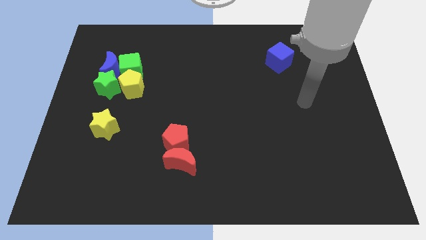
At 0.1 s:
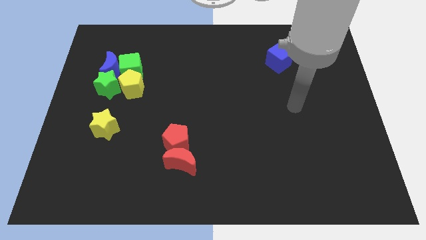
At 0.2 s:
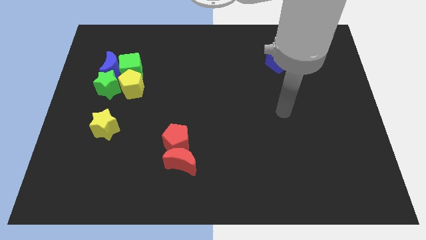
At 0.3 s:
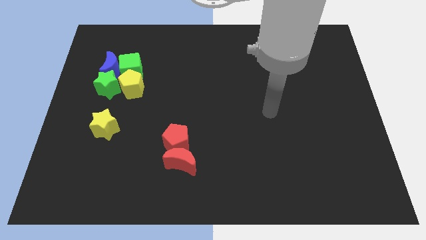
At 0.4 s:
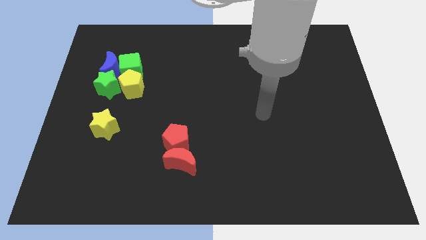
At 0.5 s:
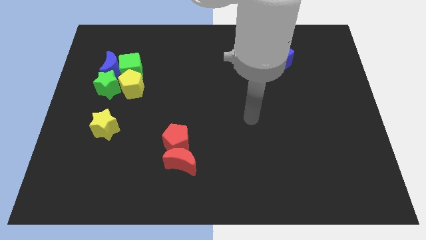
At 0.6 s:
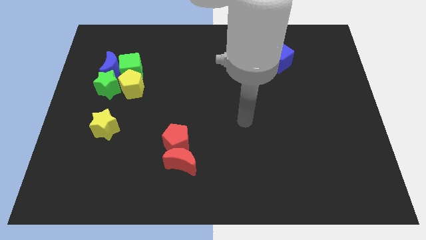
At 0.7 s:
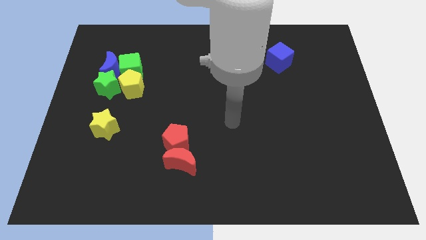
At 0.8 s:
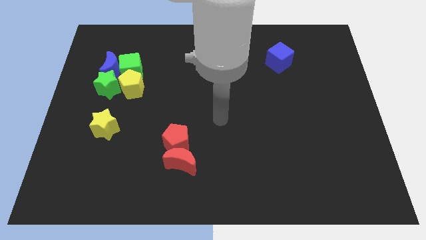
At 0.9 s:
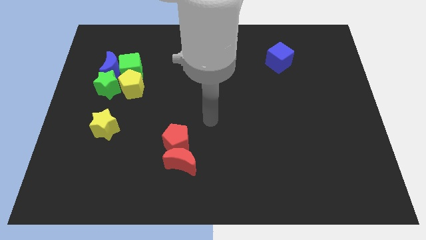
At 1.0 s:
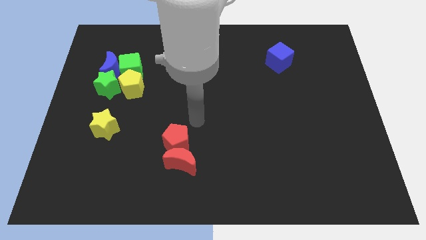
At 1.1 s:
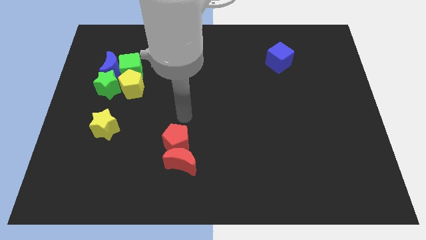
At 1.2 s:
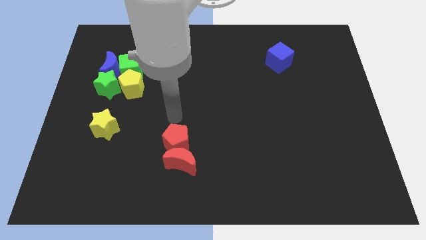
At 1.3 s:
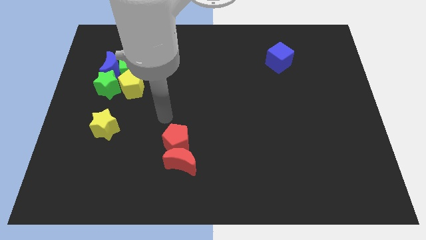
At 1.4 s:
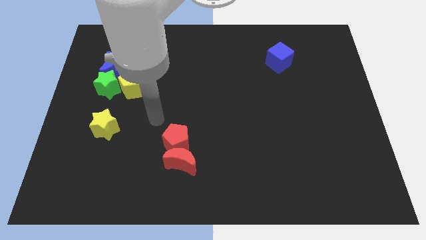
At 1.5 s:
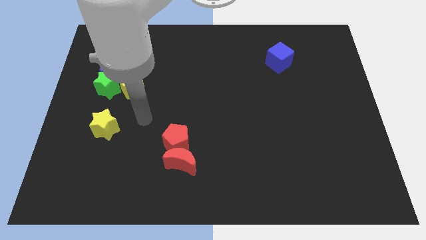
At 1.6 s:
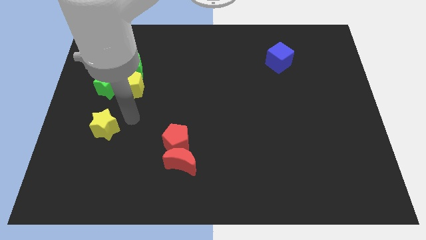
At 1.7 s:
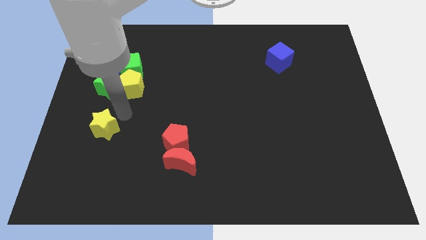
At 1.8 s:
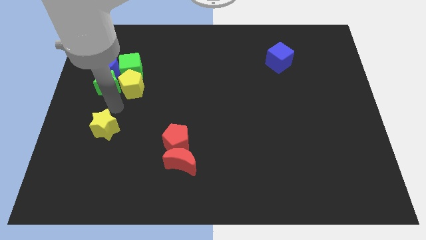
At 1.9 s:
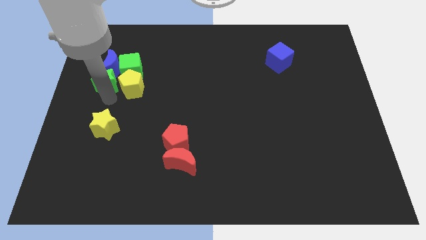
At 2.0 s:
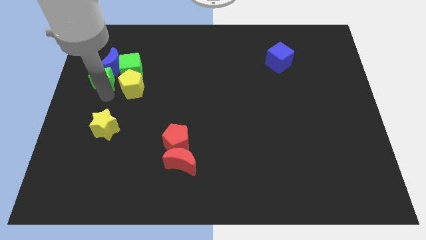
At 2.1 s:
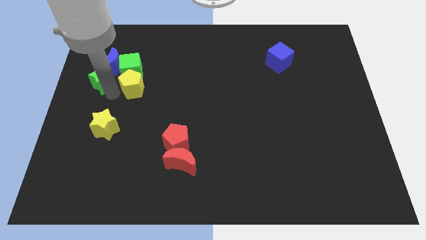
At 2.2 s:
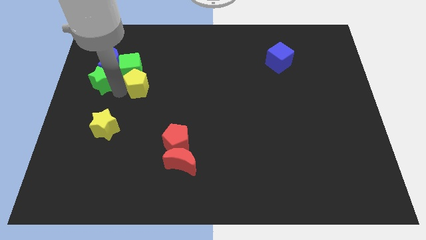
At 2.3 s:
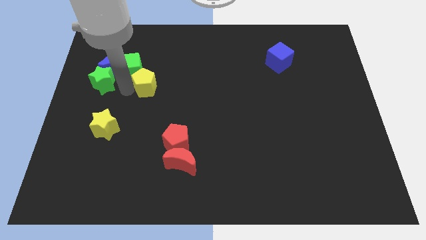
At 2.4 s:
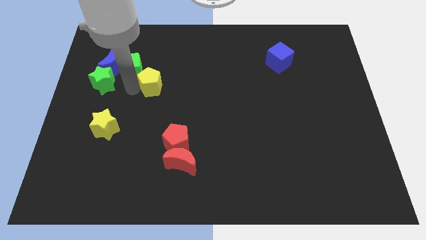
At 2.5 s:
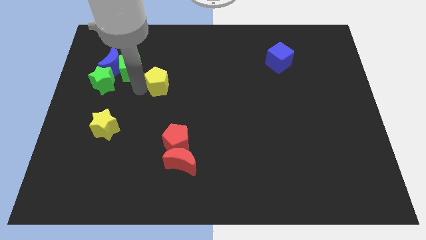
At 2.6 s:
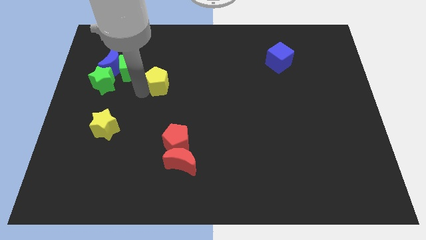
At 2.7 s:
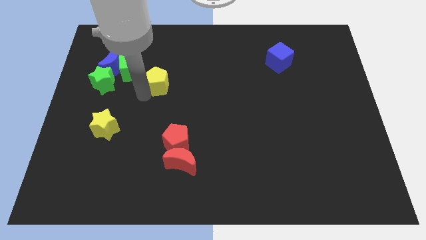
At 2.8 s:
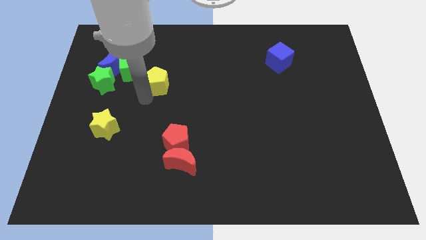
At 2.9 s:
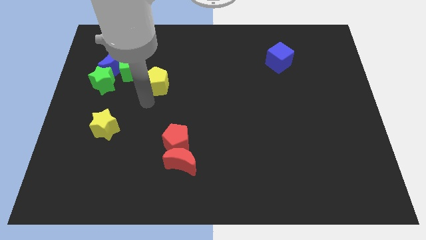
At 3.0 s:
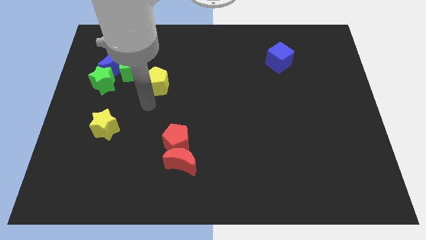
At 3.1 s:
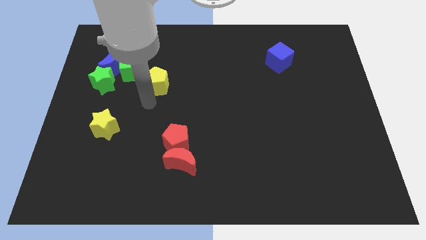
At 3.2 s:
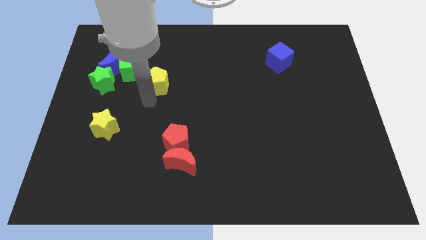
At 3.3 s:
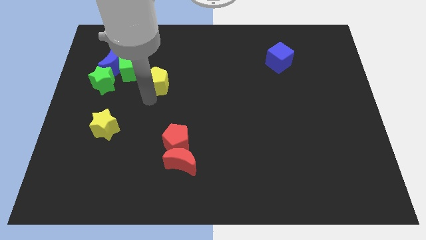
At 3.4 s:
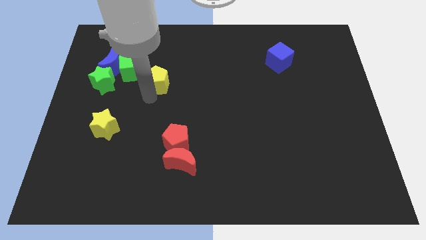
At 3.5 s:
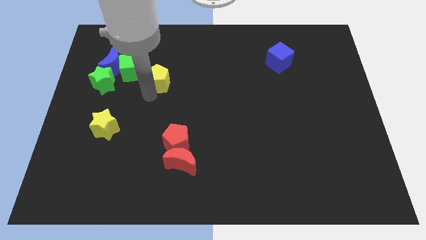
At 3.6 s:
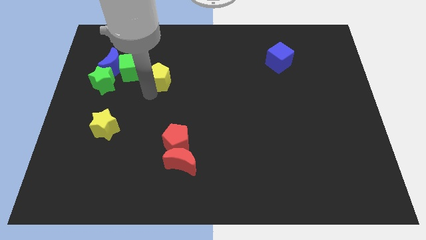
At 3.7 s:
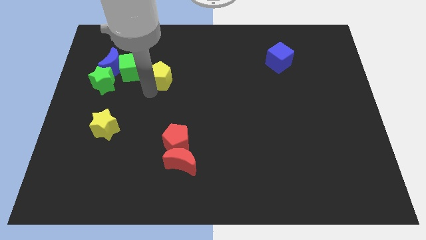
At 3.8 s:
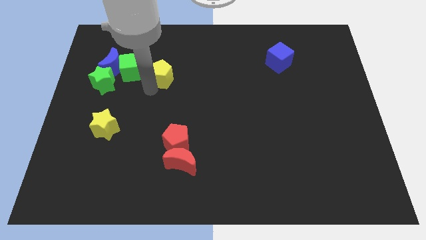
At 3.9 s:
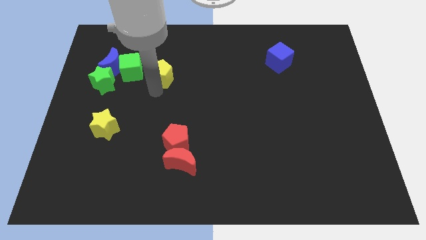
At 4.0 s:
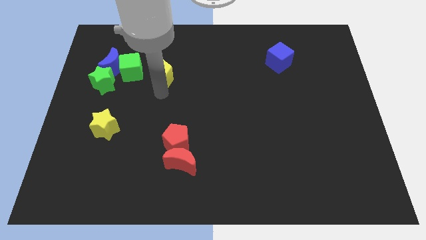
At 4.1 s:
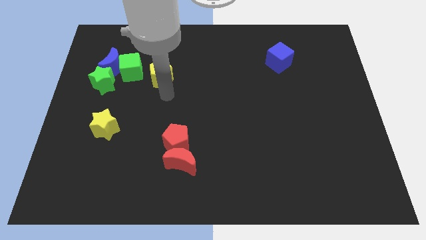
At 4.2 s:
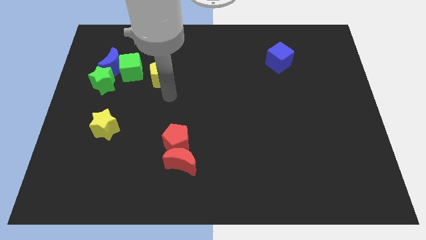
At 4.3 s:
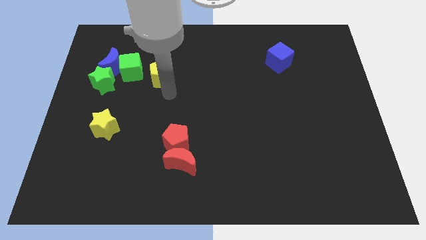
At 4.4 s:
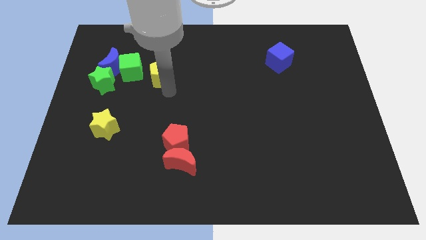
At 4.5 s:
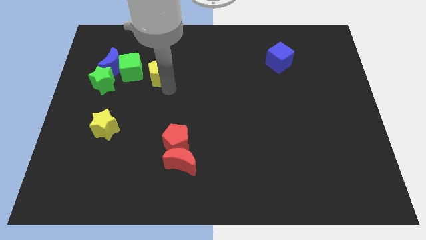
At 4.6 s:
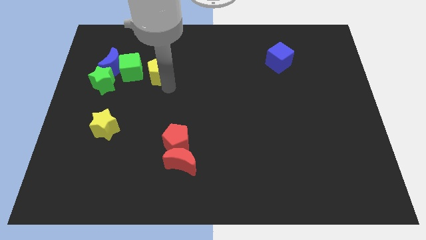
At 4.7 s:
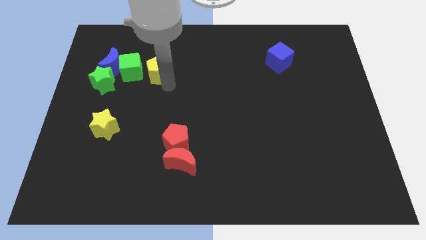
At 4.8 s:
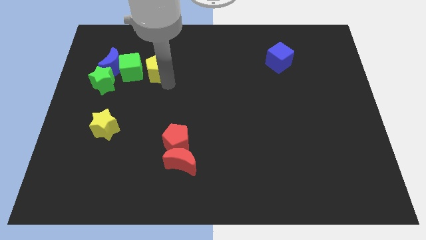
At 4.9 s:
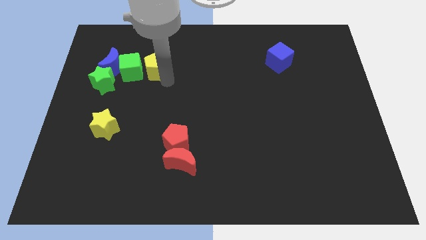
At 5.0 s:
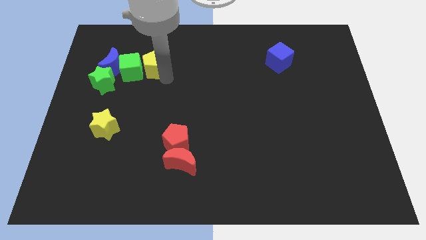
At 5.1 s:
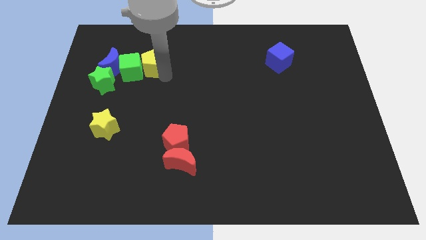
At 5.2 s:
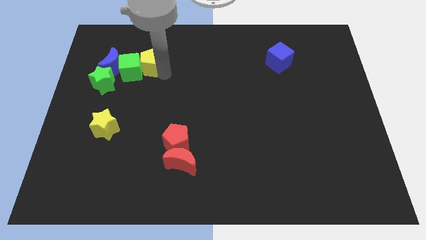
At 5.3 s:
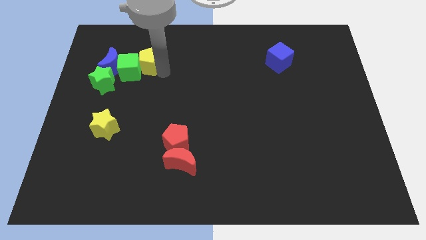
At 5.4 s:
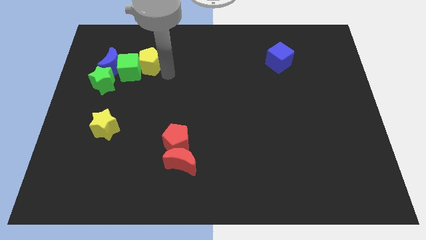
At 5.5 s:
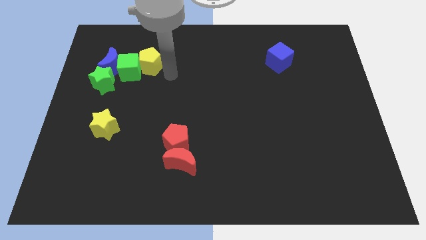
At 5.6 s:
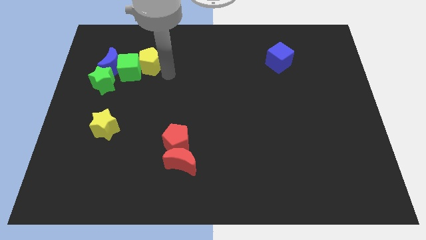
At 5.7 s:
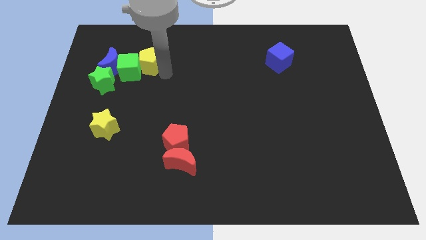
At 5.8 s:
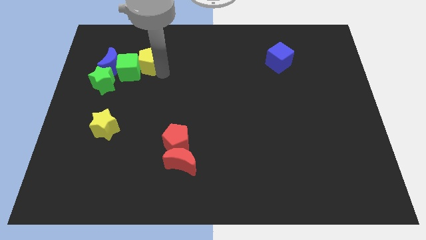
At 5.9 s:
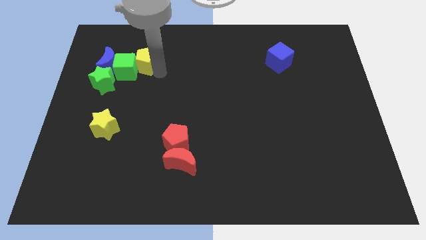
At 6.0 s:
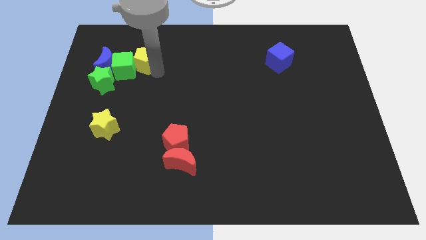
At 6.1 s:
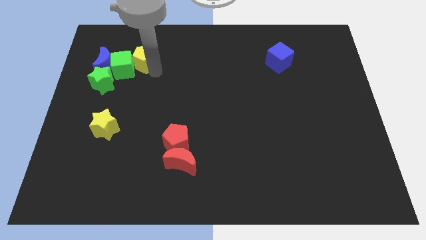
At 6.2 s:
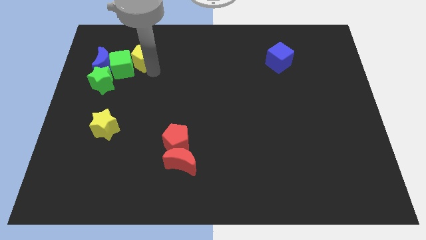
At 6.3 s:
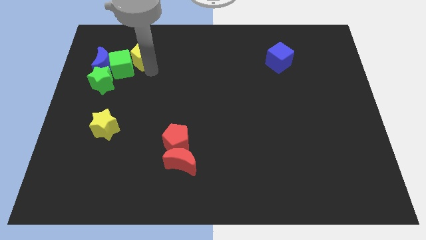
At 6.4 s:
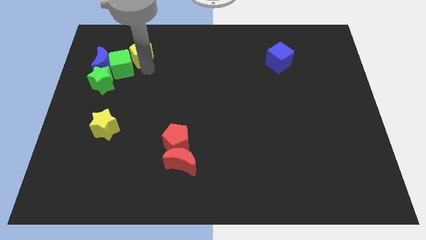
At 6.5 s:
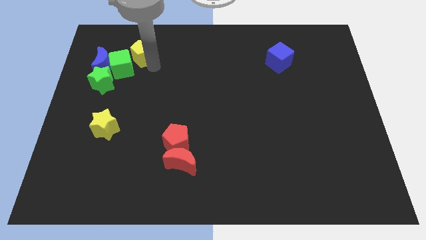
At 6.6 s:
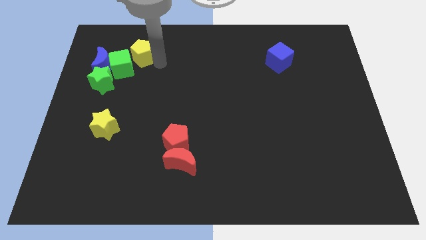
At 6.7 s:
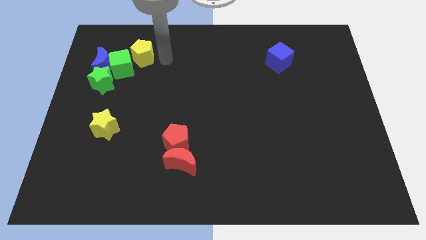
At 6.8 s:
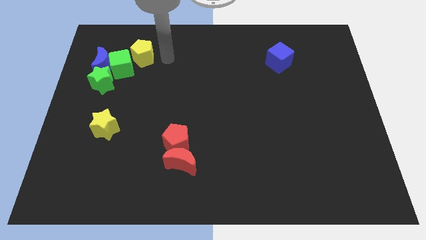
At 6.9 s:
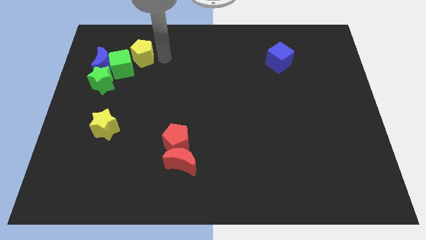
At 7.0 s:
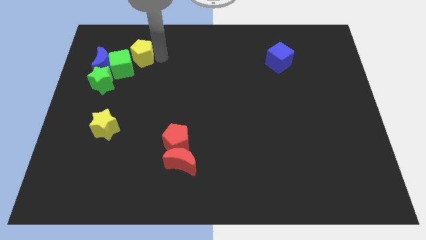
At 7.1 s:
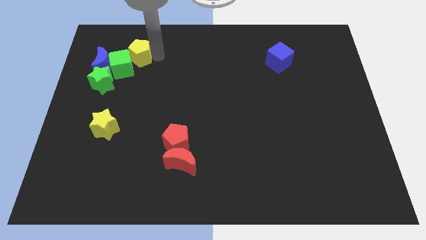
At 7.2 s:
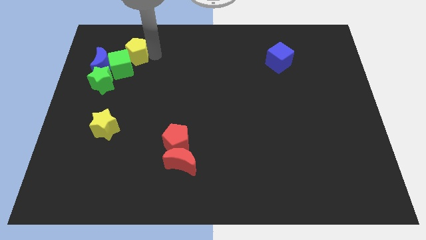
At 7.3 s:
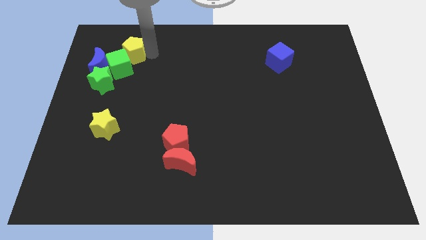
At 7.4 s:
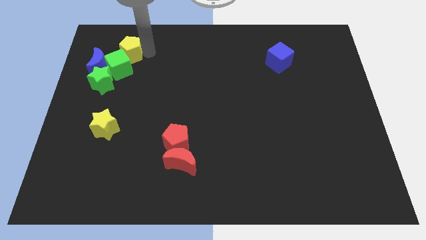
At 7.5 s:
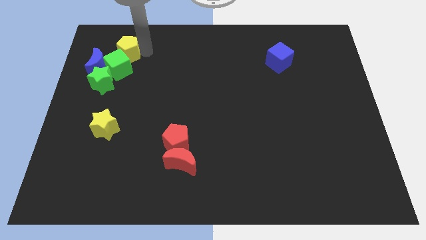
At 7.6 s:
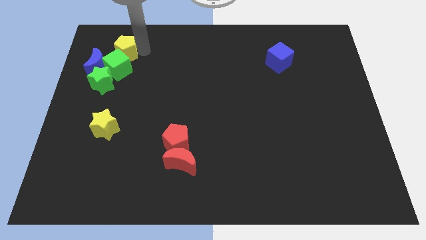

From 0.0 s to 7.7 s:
push the yellow pentagon to the top left of the green cube
